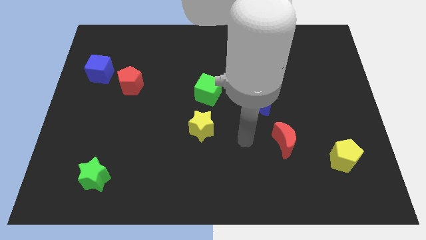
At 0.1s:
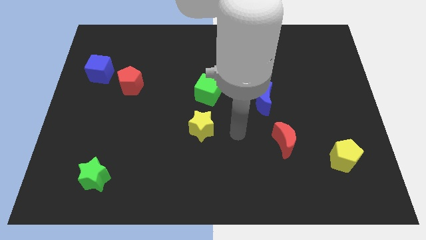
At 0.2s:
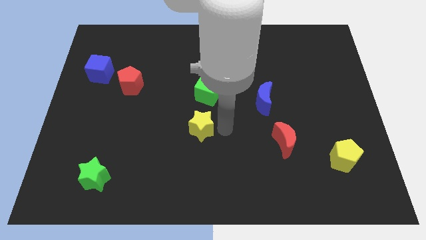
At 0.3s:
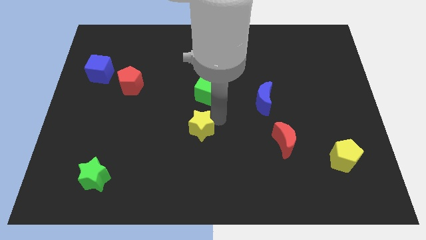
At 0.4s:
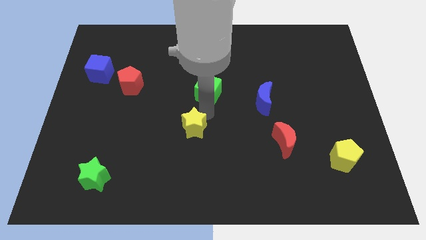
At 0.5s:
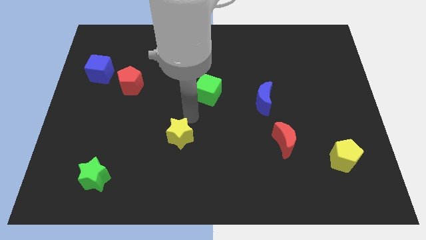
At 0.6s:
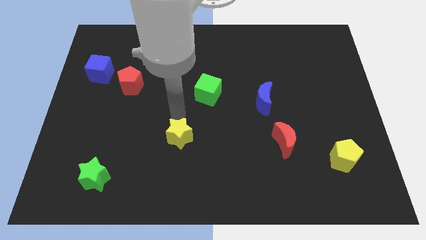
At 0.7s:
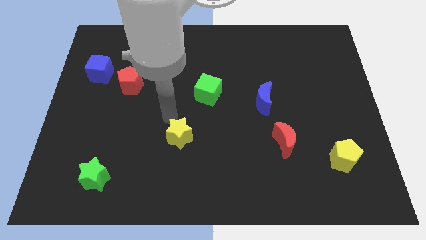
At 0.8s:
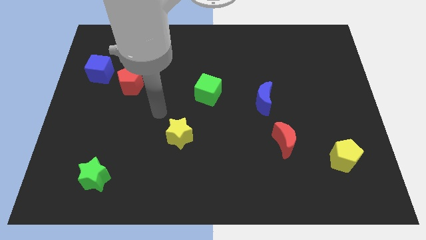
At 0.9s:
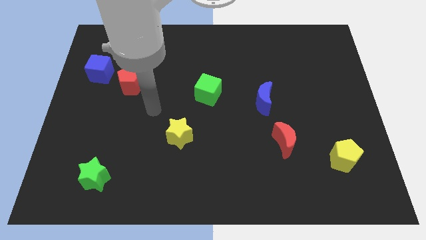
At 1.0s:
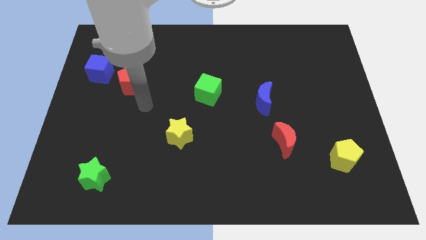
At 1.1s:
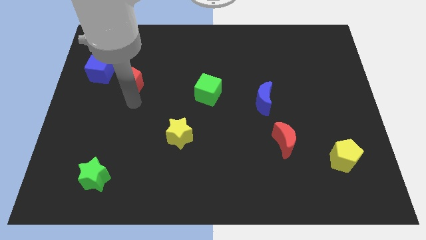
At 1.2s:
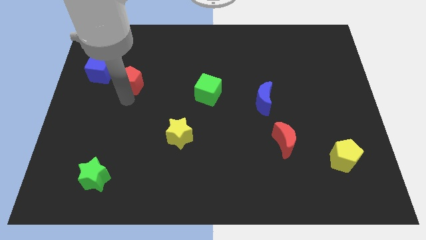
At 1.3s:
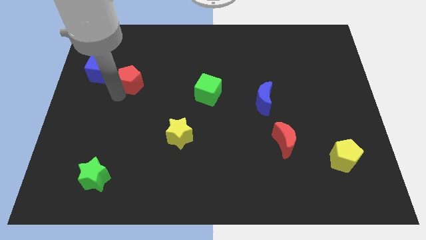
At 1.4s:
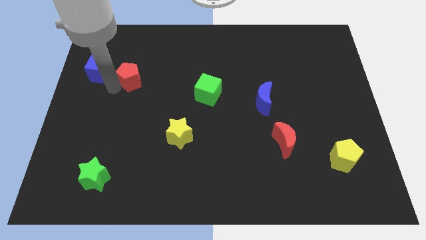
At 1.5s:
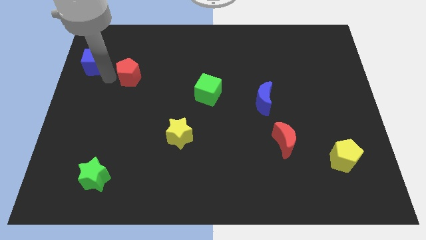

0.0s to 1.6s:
separate the red pentagon from the blue cube

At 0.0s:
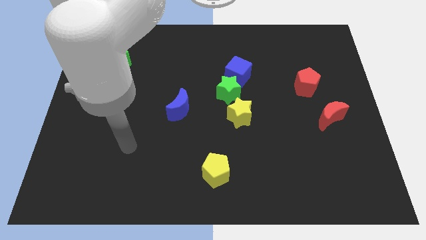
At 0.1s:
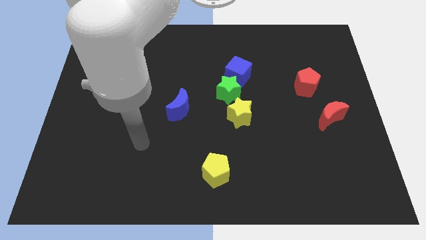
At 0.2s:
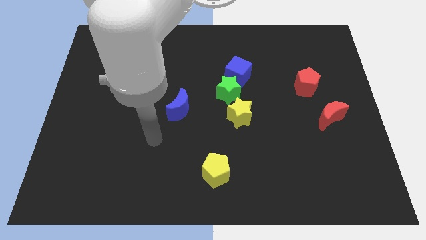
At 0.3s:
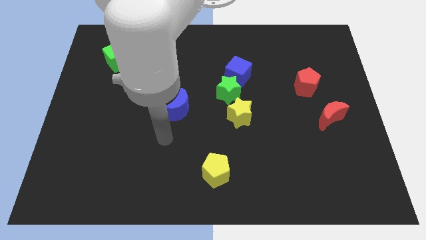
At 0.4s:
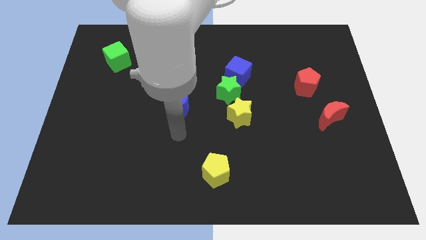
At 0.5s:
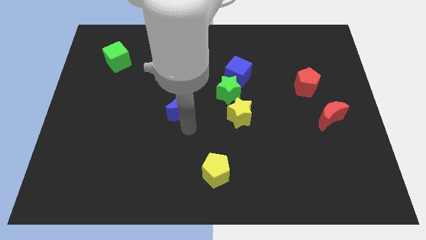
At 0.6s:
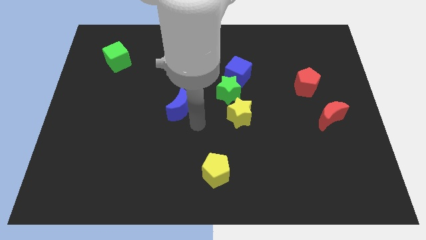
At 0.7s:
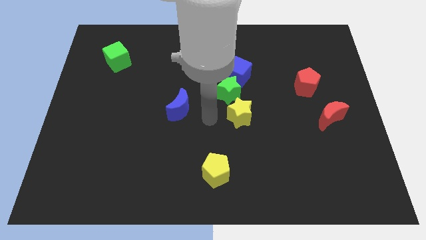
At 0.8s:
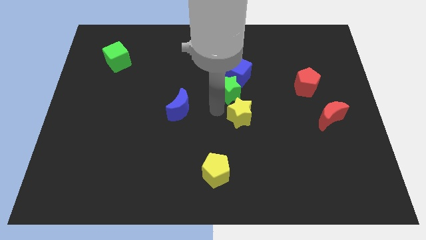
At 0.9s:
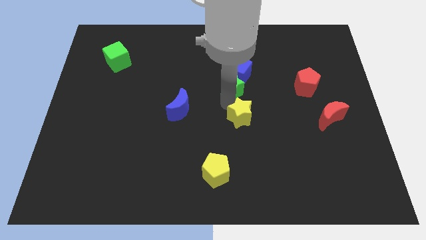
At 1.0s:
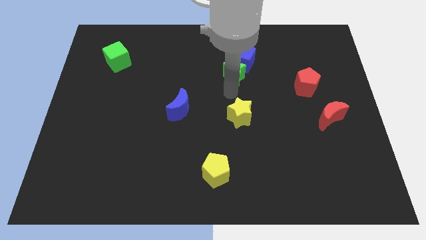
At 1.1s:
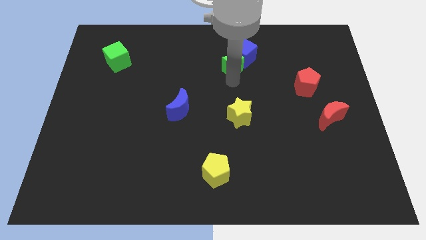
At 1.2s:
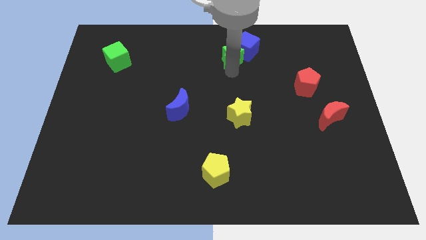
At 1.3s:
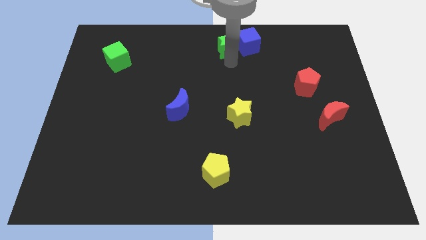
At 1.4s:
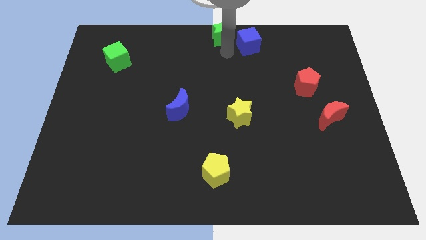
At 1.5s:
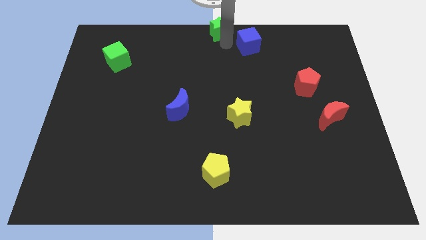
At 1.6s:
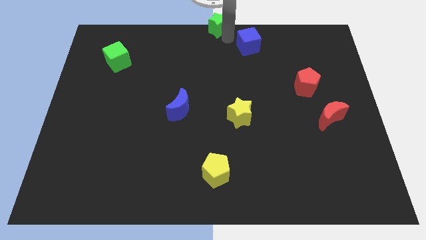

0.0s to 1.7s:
pull the blue cube apart from the green star

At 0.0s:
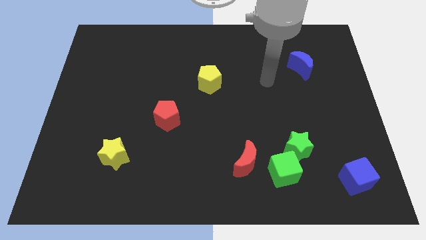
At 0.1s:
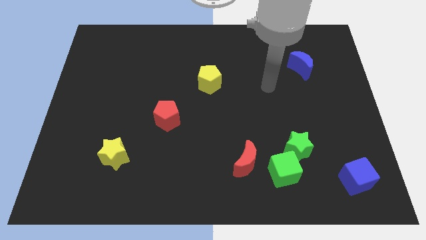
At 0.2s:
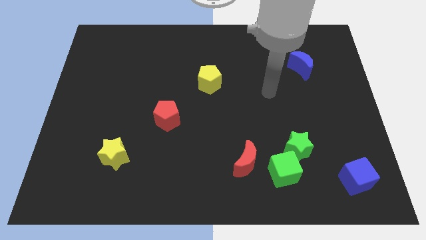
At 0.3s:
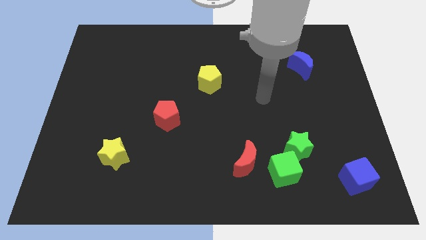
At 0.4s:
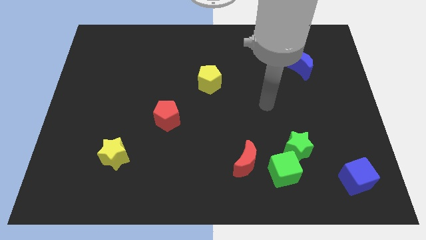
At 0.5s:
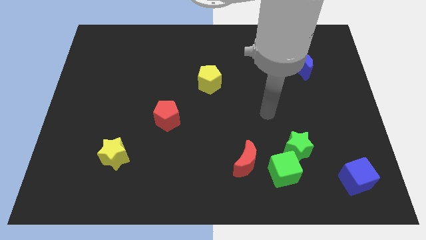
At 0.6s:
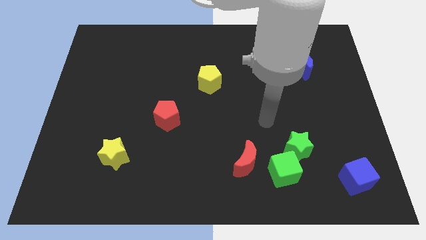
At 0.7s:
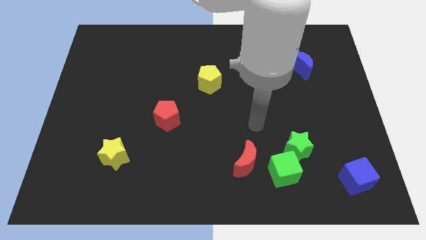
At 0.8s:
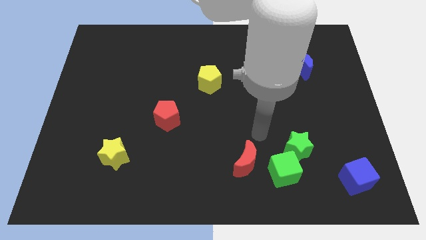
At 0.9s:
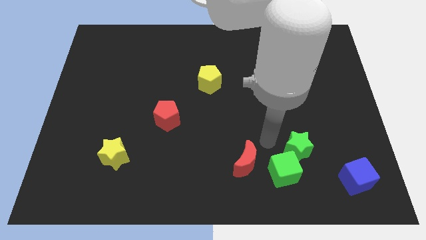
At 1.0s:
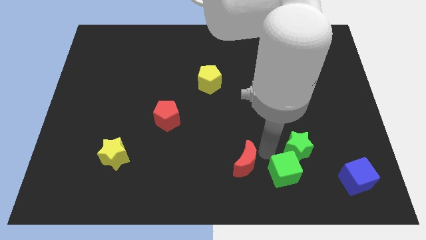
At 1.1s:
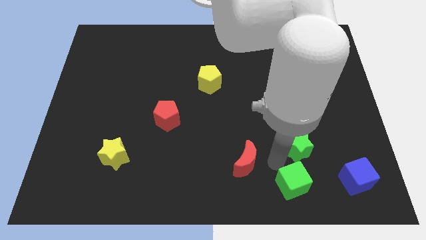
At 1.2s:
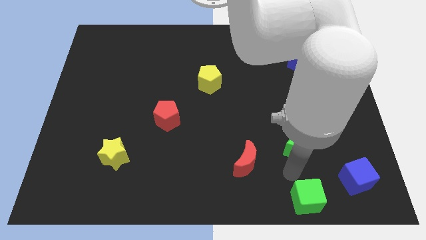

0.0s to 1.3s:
move the green star away from the green cube

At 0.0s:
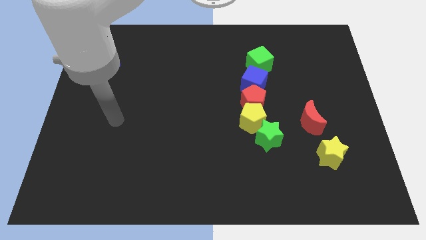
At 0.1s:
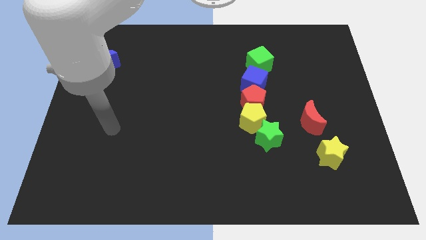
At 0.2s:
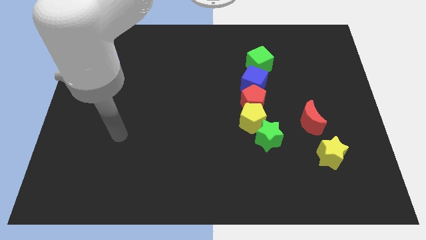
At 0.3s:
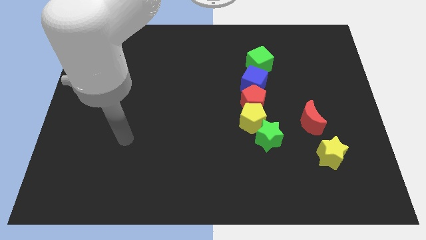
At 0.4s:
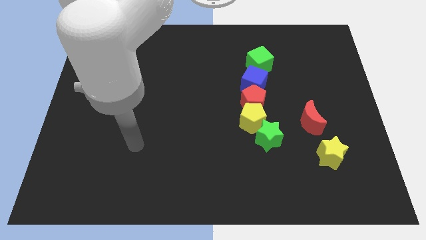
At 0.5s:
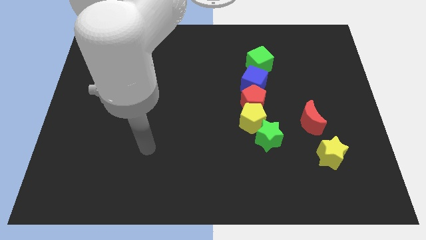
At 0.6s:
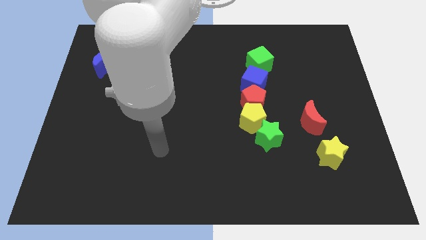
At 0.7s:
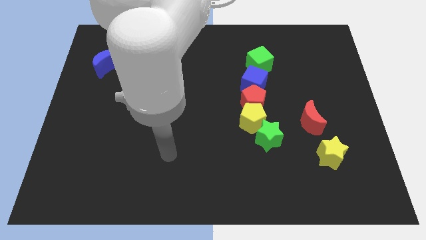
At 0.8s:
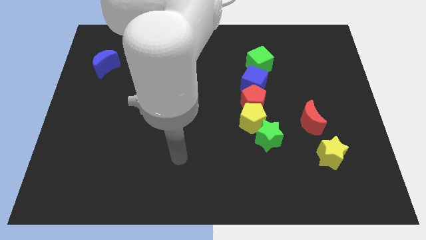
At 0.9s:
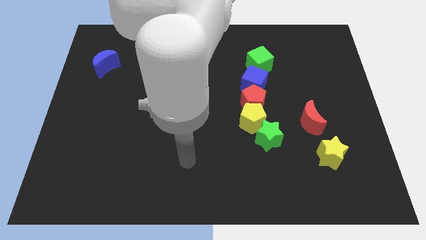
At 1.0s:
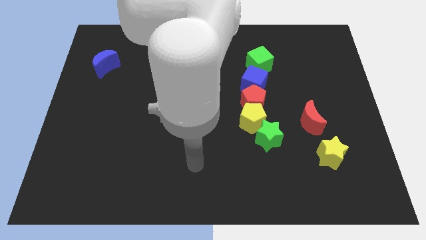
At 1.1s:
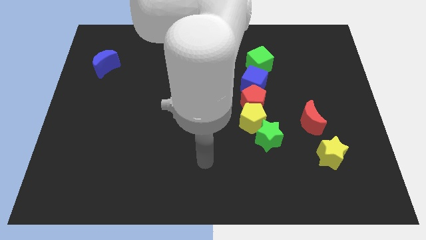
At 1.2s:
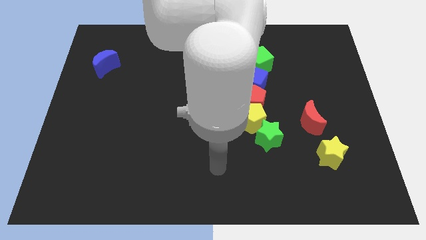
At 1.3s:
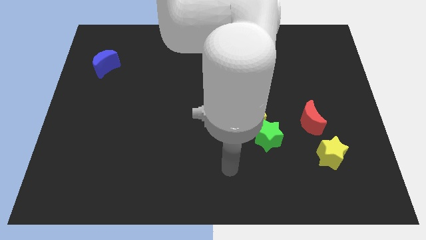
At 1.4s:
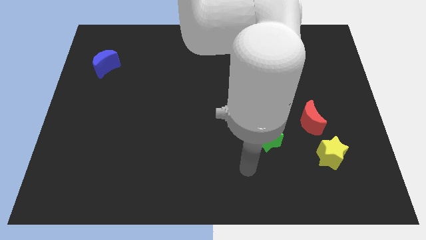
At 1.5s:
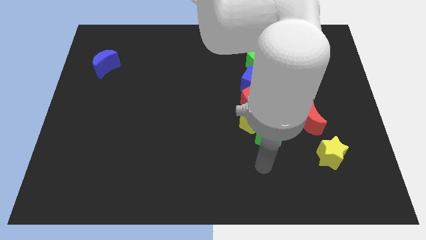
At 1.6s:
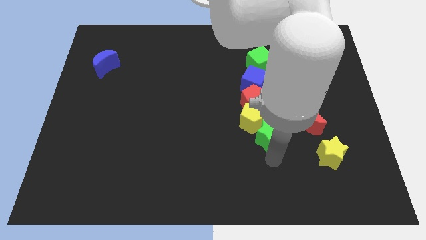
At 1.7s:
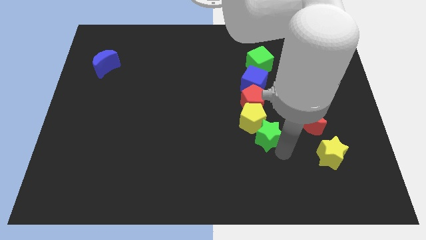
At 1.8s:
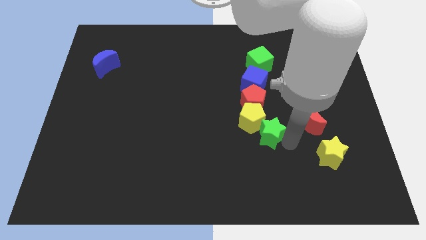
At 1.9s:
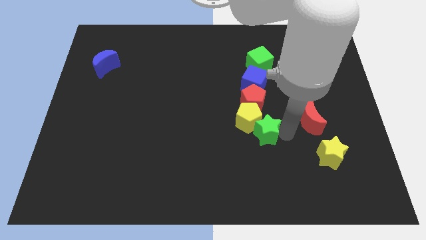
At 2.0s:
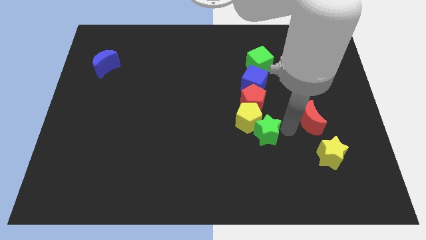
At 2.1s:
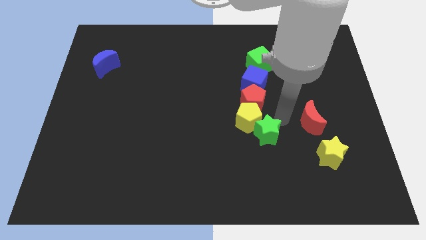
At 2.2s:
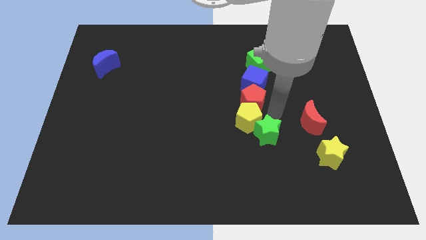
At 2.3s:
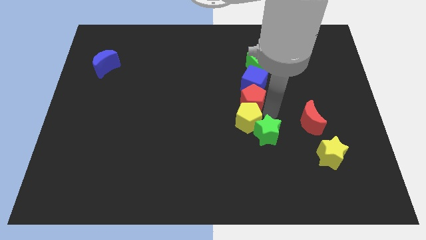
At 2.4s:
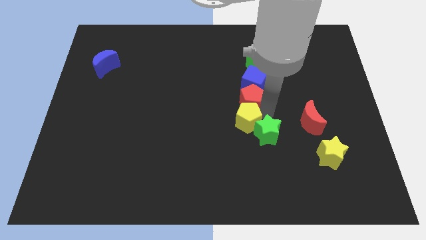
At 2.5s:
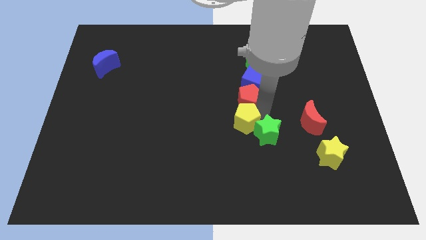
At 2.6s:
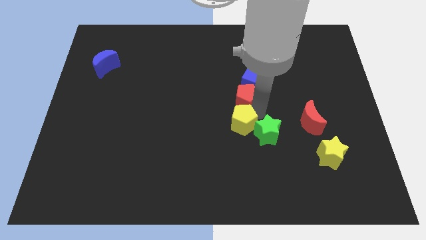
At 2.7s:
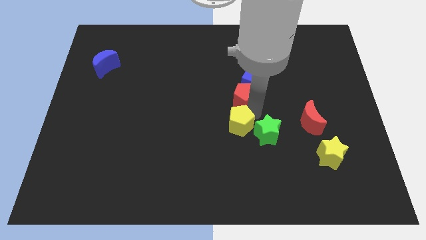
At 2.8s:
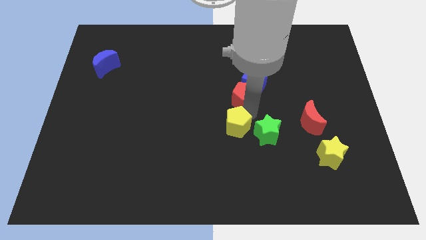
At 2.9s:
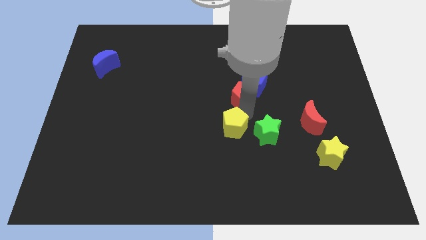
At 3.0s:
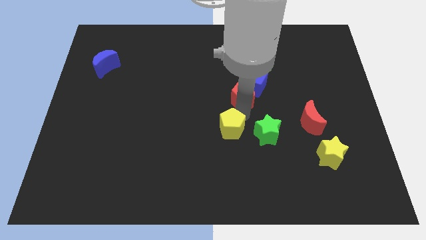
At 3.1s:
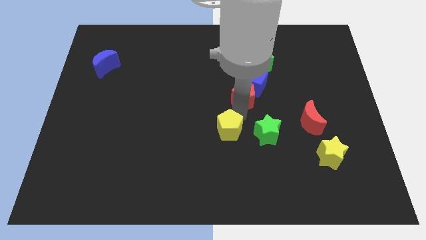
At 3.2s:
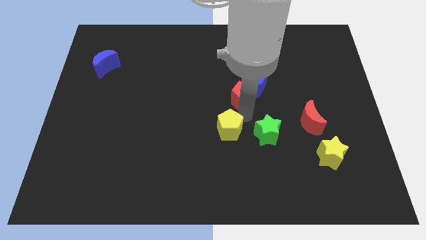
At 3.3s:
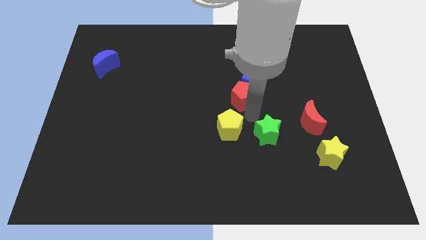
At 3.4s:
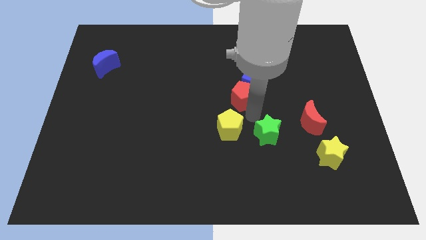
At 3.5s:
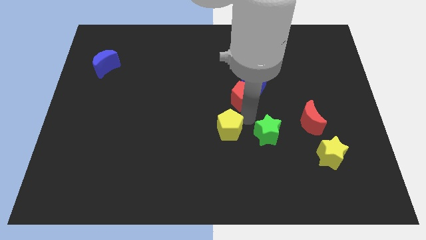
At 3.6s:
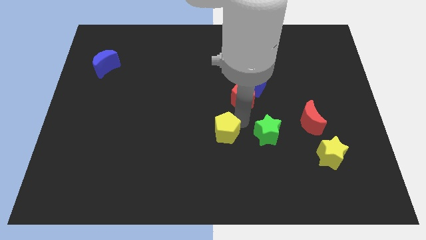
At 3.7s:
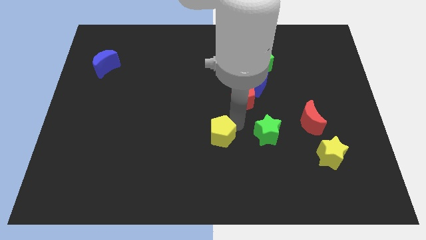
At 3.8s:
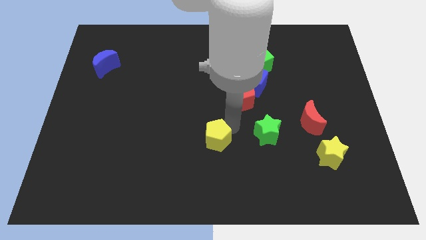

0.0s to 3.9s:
separate the yellow pentagon from the red pentagon and green star

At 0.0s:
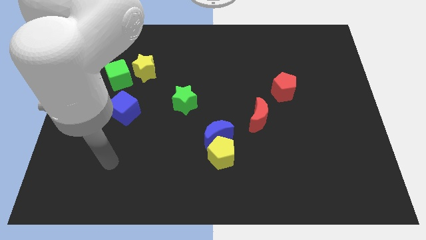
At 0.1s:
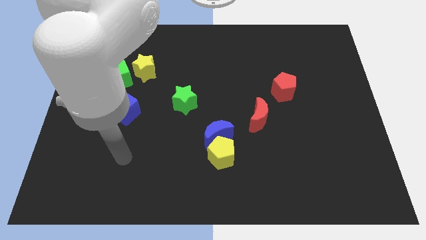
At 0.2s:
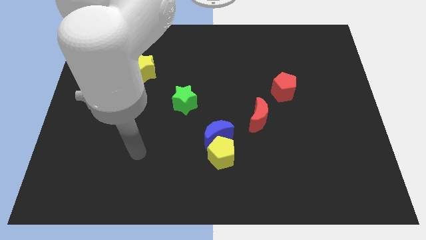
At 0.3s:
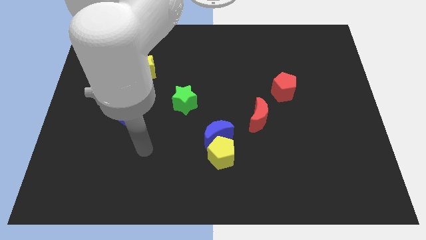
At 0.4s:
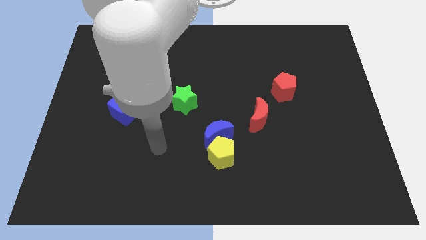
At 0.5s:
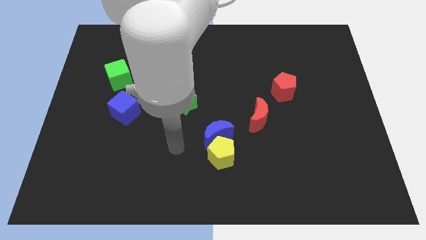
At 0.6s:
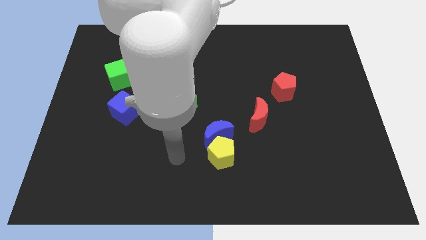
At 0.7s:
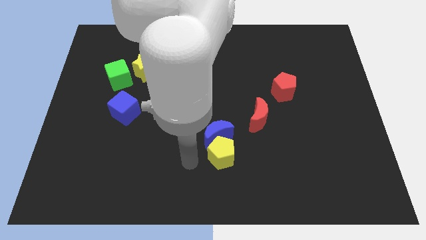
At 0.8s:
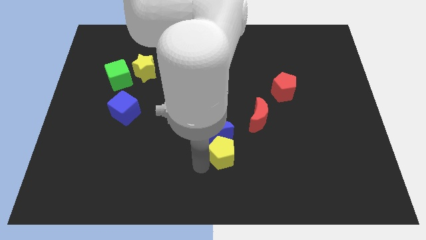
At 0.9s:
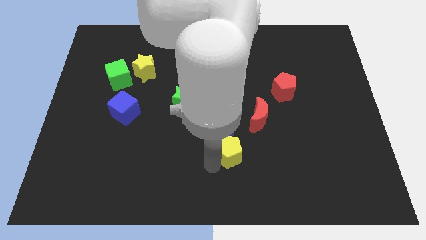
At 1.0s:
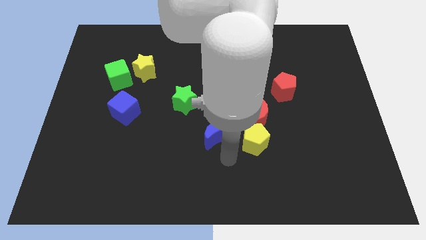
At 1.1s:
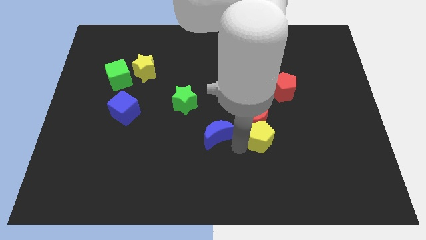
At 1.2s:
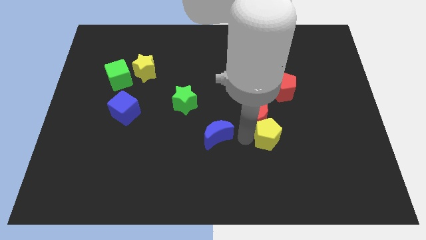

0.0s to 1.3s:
separate the blue moon from the yellow pentagon
